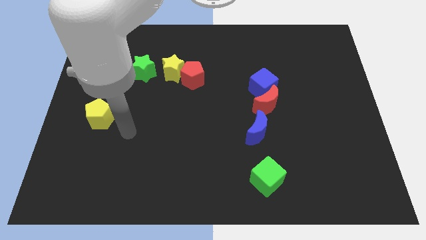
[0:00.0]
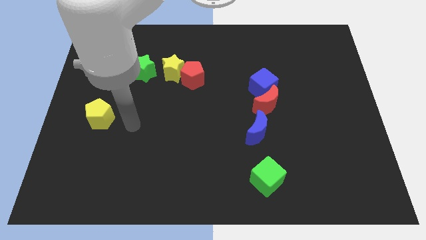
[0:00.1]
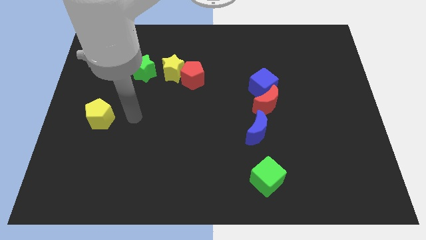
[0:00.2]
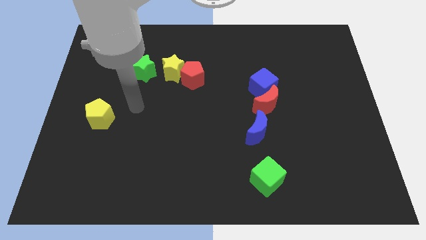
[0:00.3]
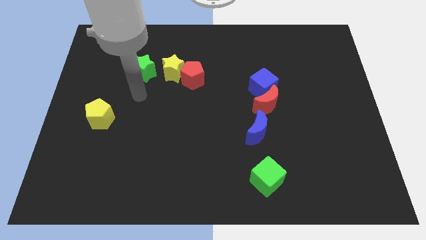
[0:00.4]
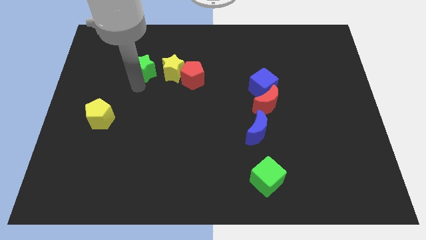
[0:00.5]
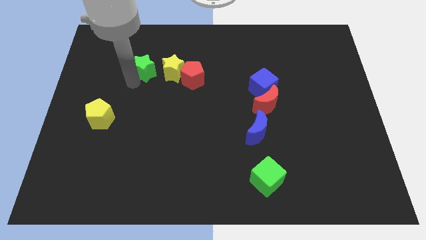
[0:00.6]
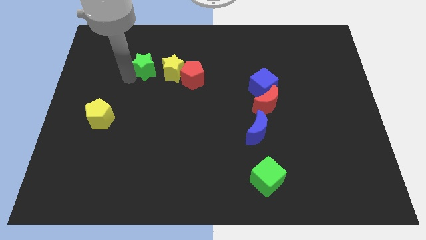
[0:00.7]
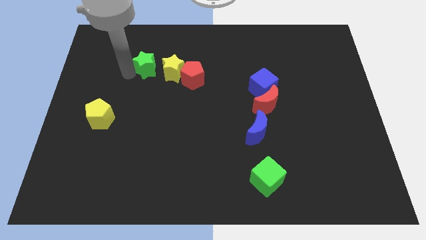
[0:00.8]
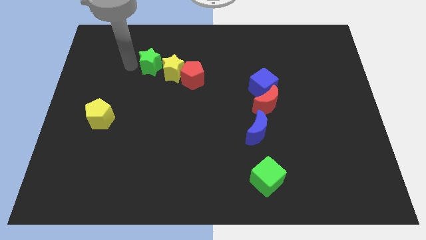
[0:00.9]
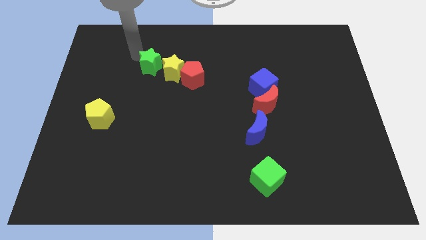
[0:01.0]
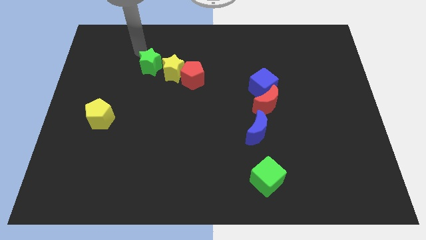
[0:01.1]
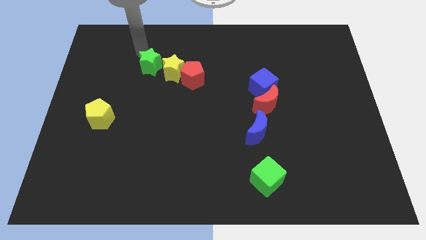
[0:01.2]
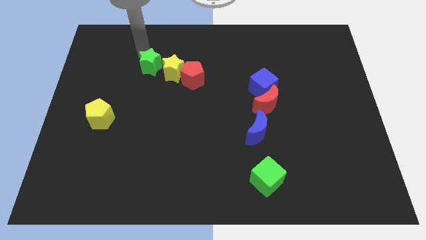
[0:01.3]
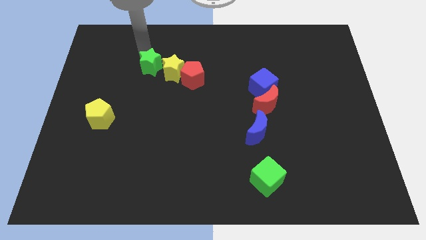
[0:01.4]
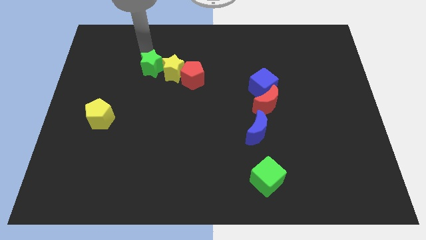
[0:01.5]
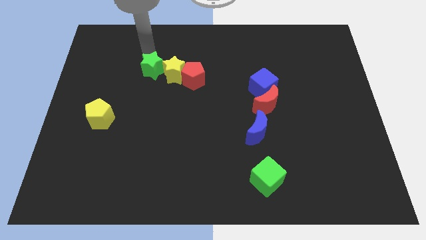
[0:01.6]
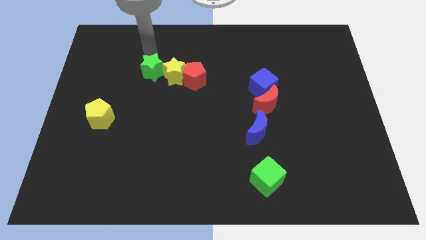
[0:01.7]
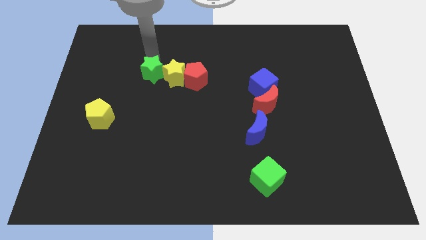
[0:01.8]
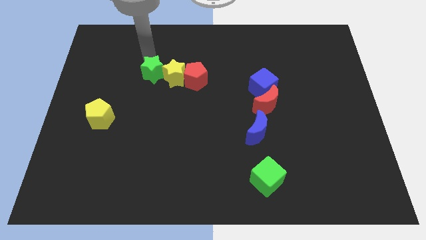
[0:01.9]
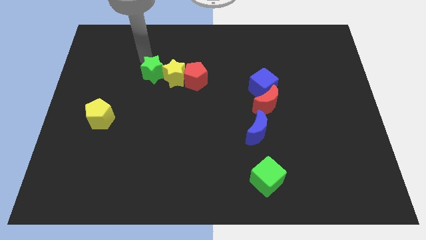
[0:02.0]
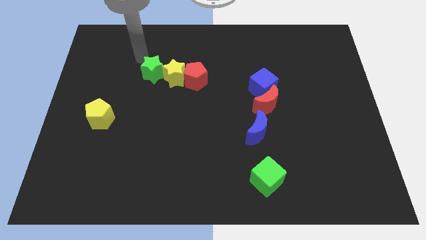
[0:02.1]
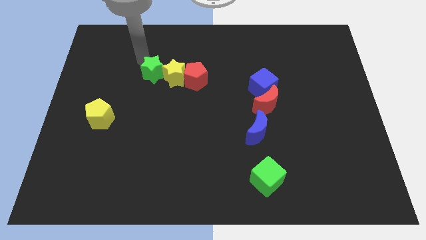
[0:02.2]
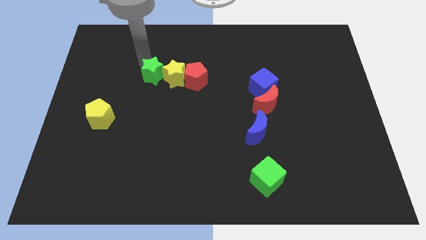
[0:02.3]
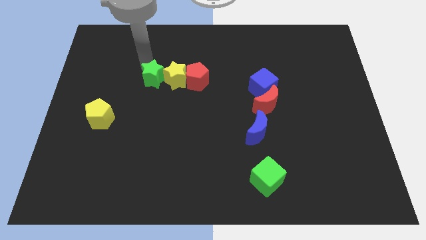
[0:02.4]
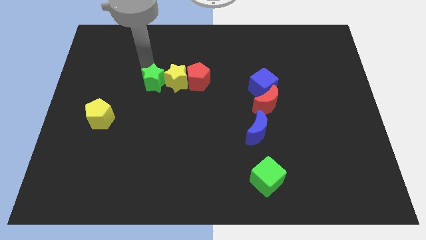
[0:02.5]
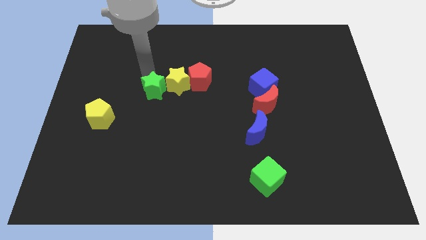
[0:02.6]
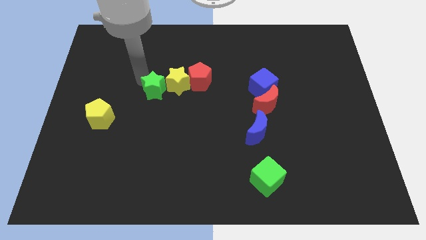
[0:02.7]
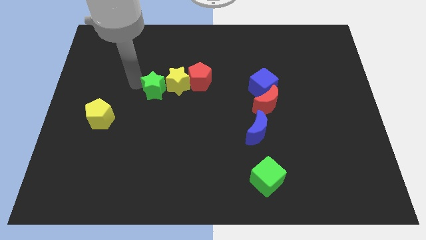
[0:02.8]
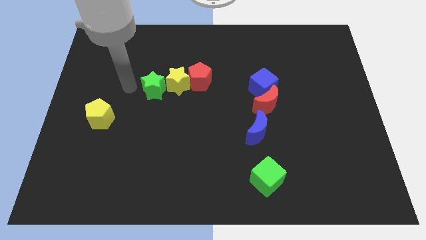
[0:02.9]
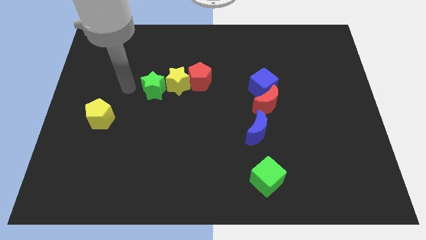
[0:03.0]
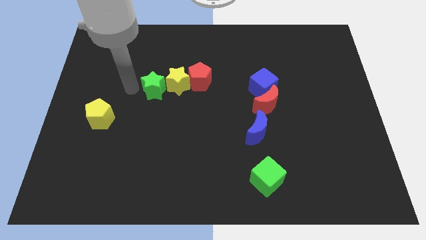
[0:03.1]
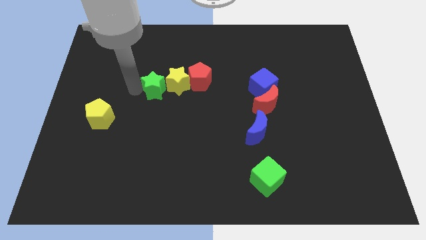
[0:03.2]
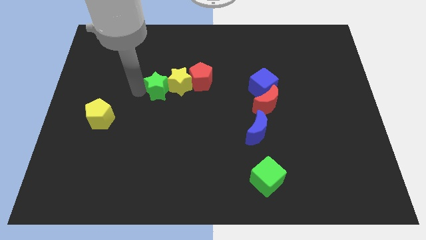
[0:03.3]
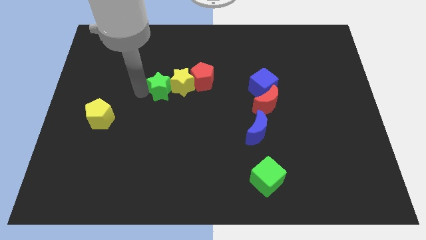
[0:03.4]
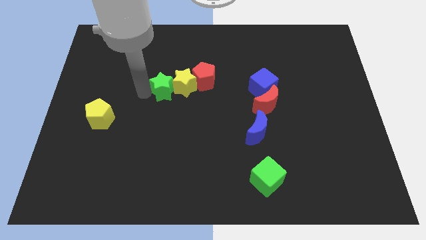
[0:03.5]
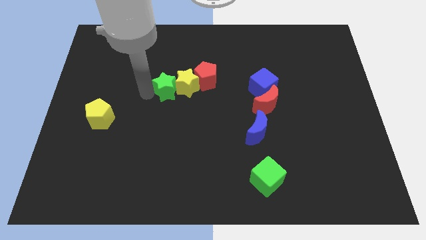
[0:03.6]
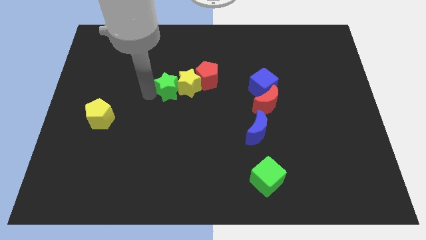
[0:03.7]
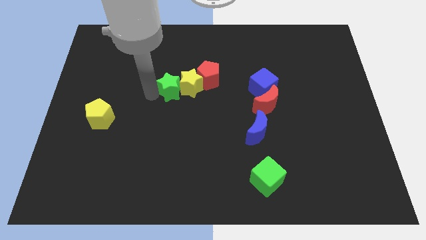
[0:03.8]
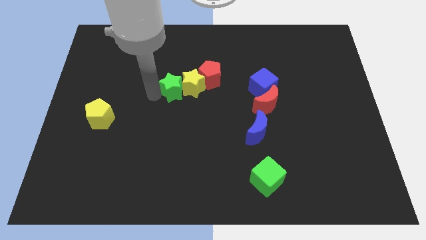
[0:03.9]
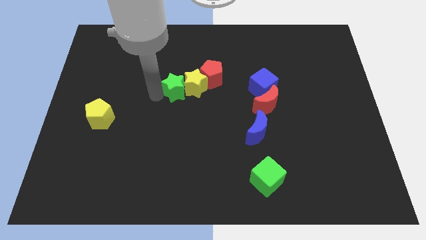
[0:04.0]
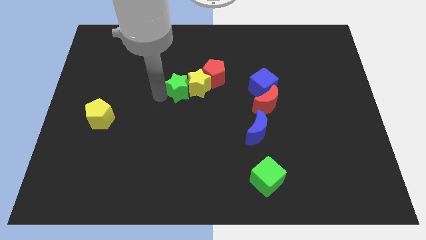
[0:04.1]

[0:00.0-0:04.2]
slide the green star right slightly

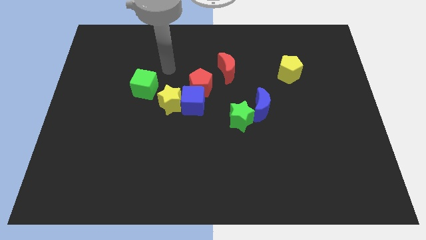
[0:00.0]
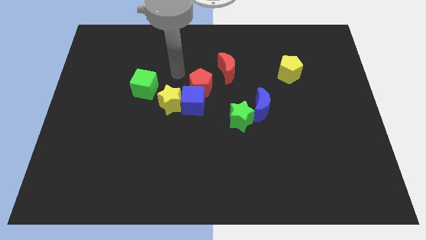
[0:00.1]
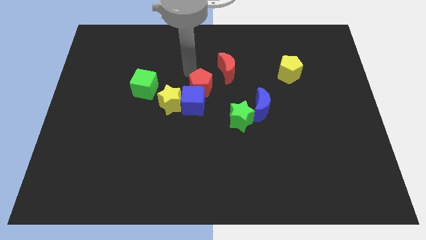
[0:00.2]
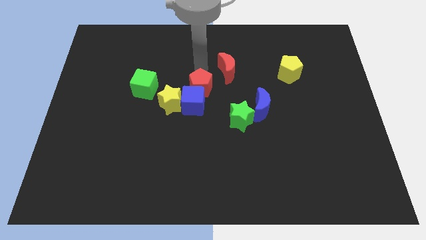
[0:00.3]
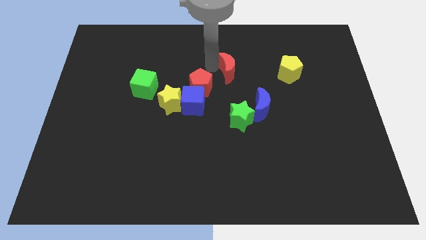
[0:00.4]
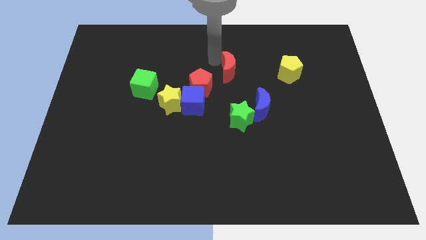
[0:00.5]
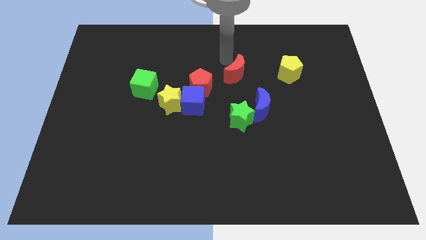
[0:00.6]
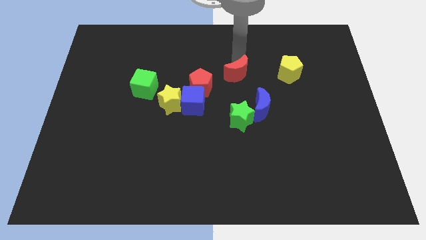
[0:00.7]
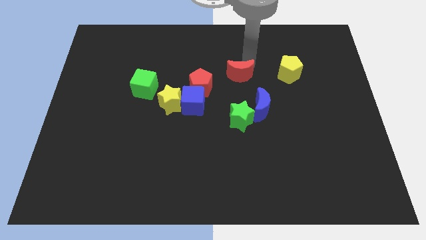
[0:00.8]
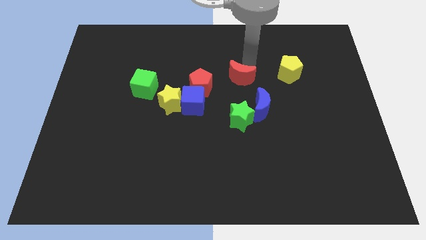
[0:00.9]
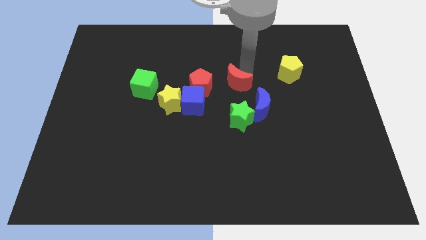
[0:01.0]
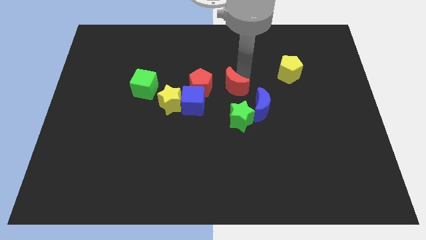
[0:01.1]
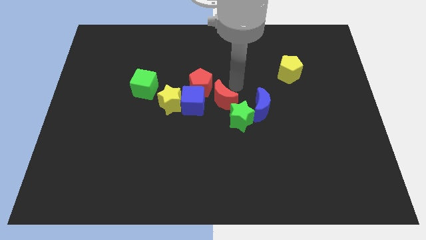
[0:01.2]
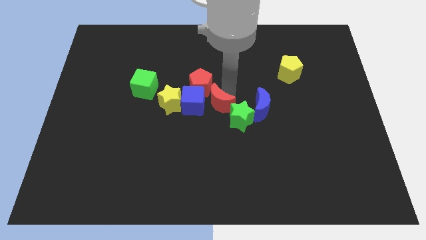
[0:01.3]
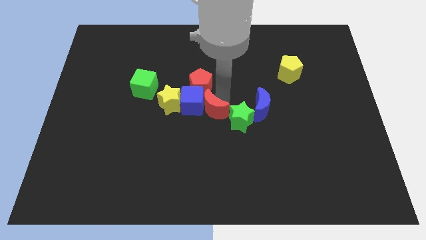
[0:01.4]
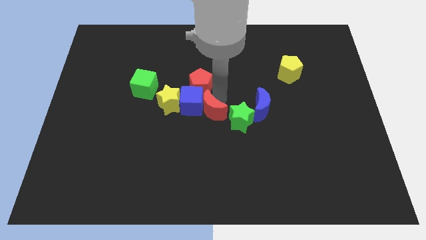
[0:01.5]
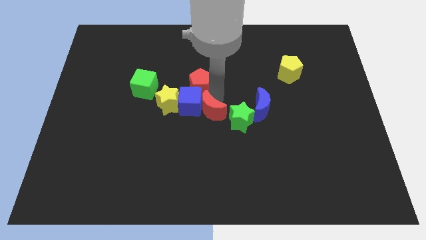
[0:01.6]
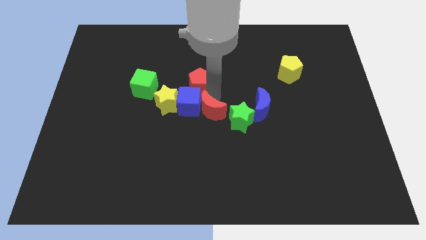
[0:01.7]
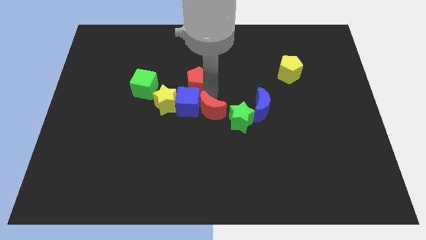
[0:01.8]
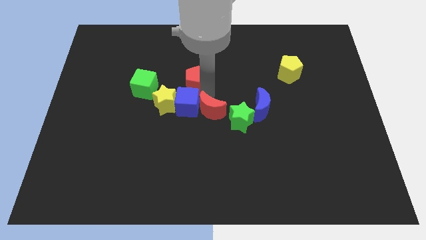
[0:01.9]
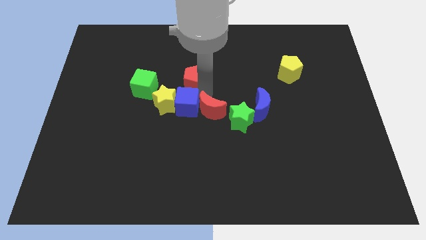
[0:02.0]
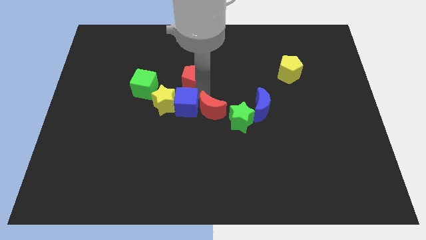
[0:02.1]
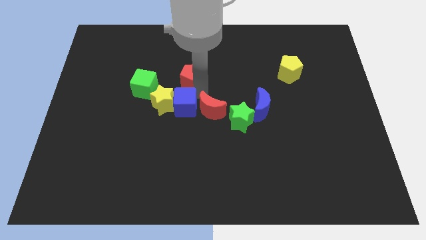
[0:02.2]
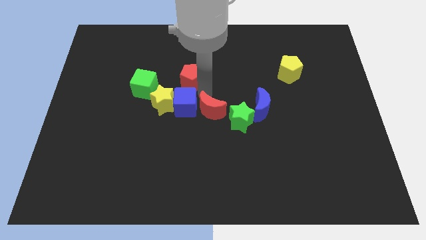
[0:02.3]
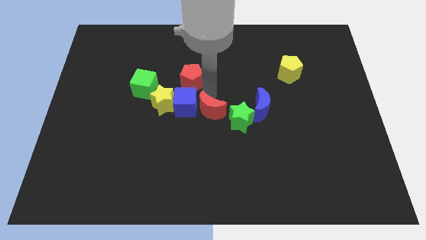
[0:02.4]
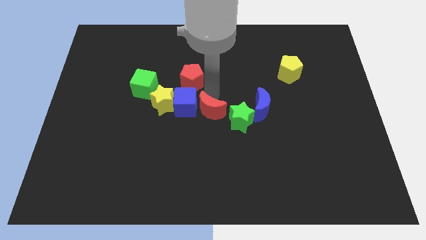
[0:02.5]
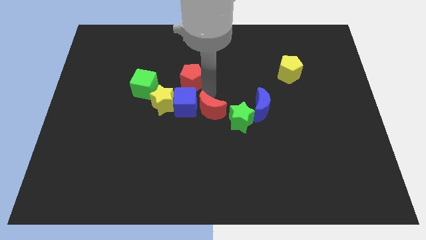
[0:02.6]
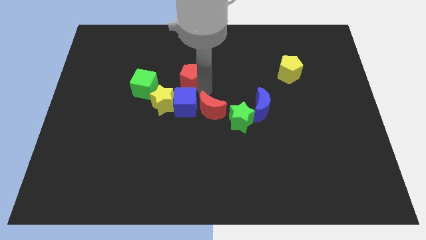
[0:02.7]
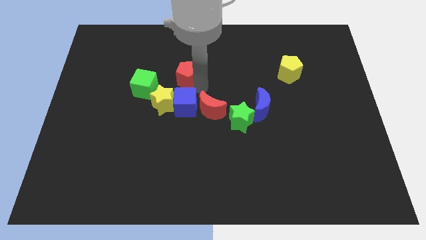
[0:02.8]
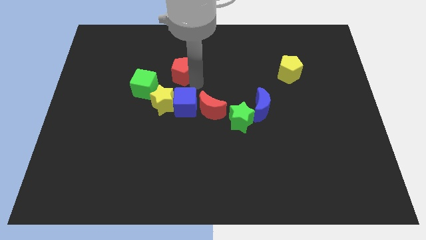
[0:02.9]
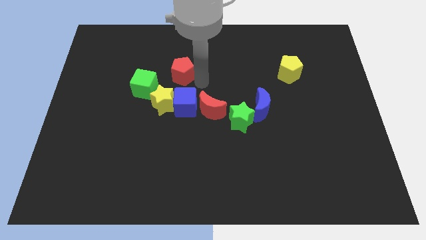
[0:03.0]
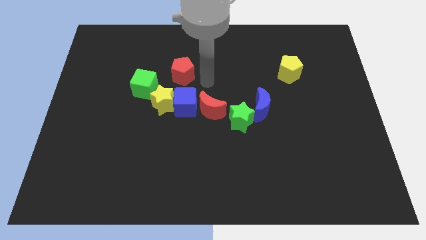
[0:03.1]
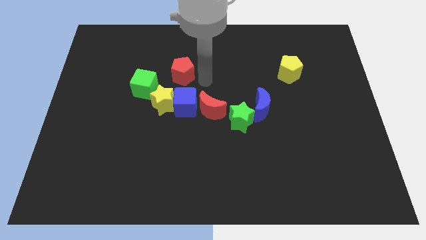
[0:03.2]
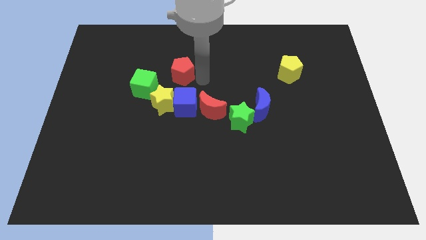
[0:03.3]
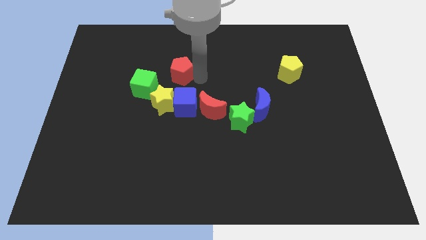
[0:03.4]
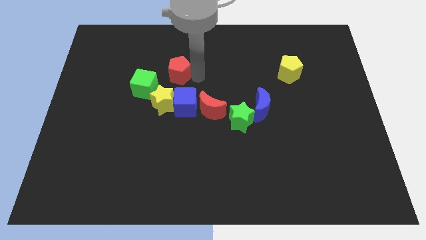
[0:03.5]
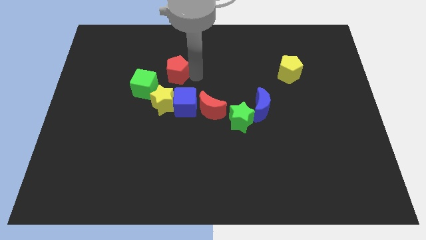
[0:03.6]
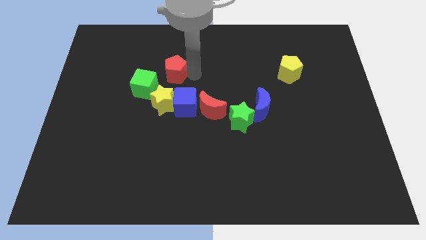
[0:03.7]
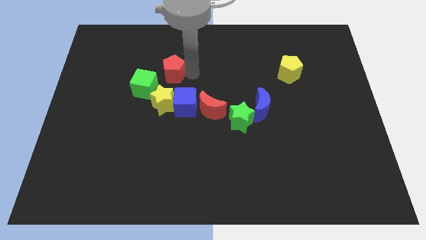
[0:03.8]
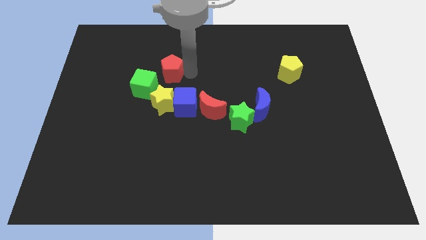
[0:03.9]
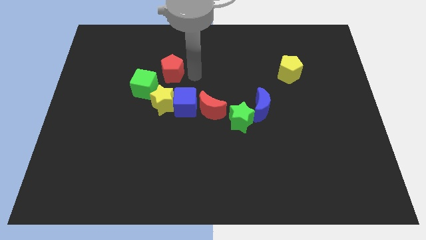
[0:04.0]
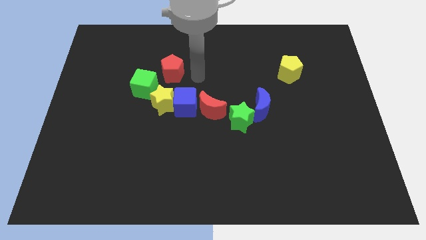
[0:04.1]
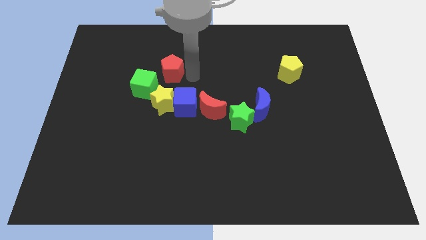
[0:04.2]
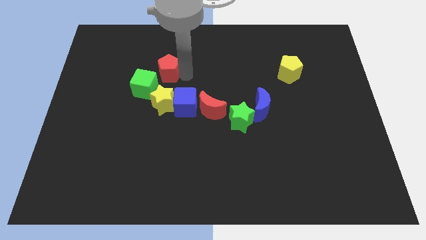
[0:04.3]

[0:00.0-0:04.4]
slide the red pentagon to the left a little bit
